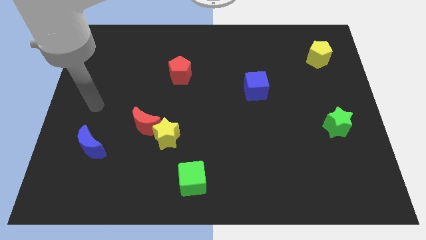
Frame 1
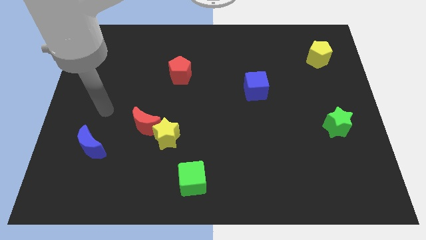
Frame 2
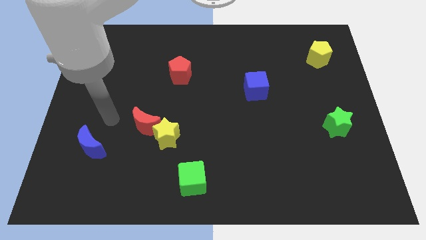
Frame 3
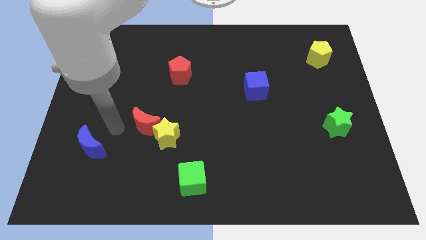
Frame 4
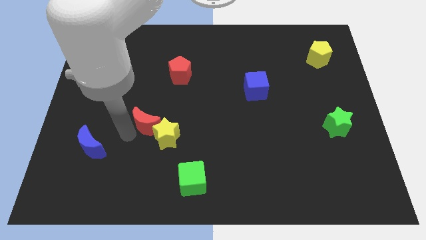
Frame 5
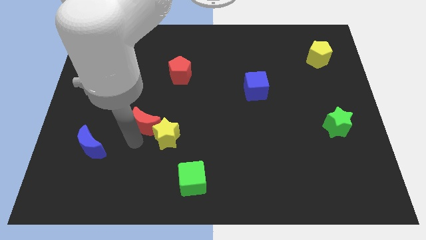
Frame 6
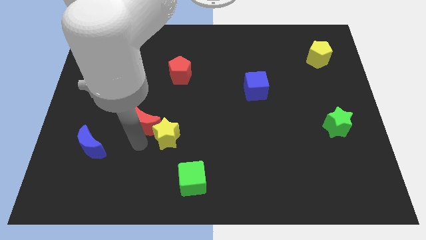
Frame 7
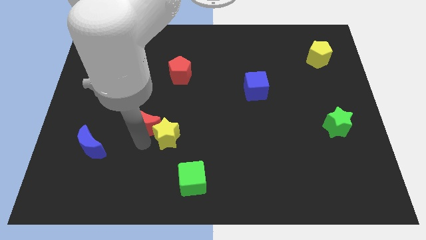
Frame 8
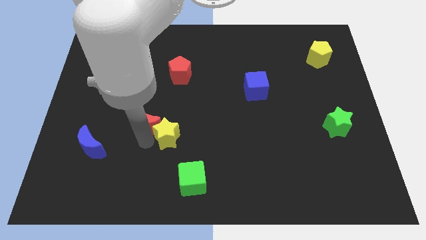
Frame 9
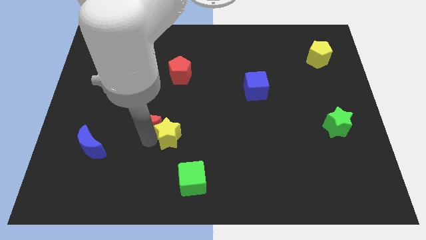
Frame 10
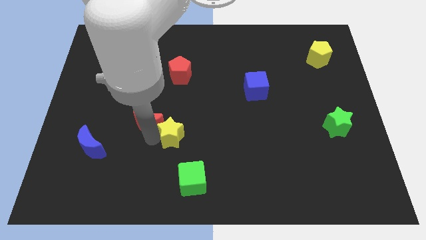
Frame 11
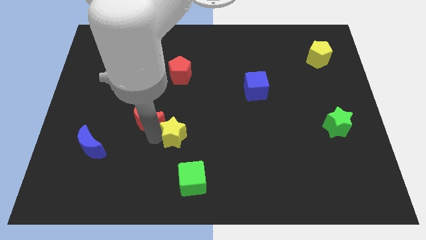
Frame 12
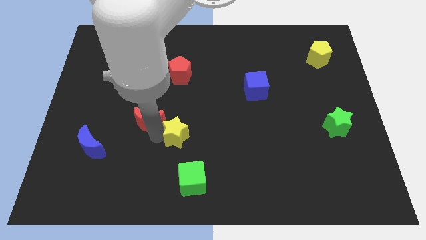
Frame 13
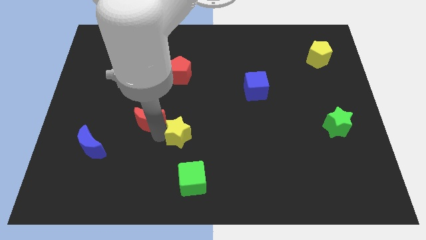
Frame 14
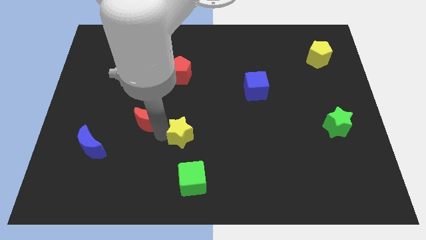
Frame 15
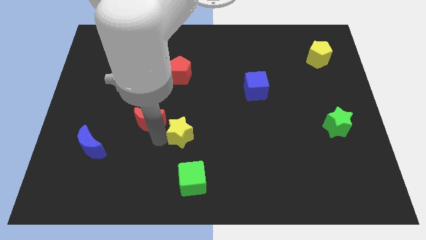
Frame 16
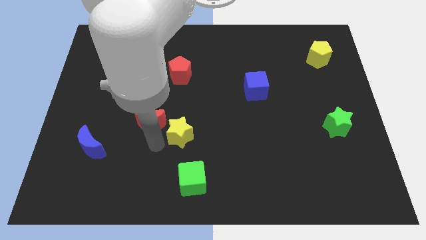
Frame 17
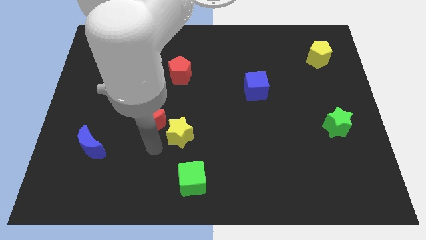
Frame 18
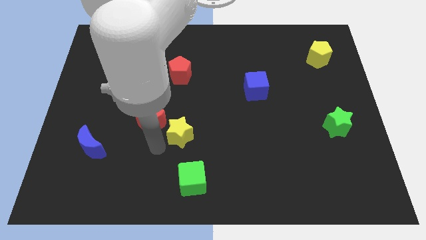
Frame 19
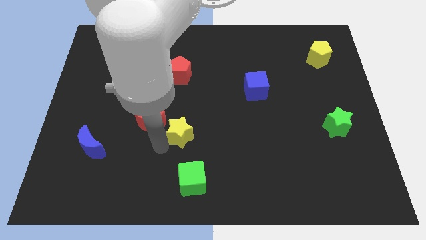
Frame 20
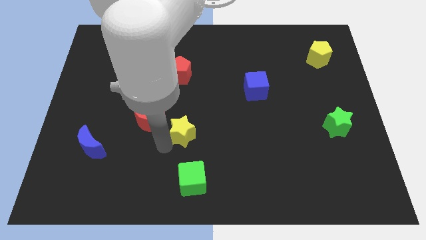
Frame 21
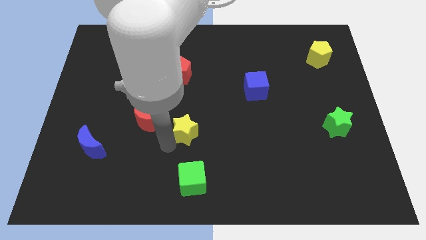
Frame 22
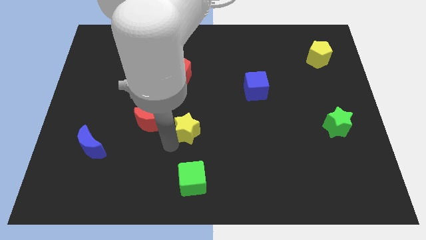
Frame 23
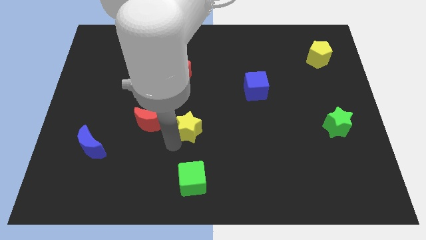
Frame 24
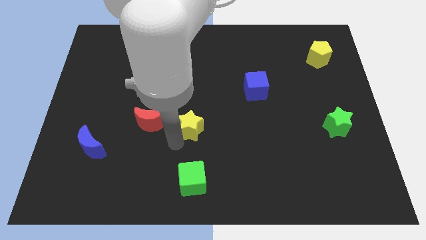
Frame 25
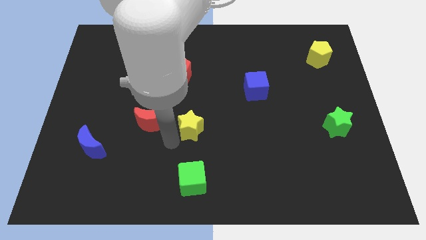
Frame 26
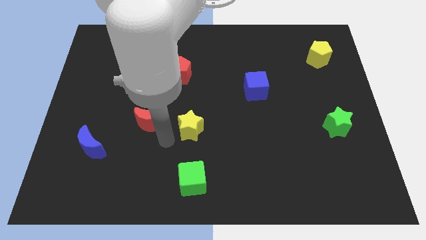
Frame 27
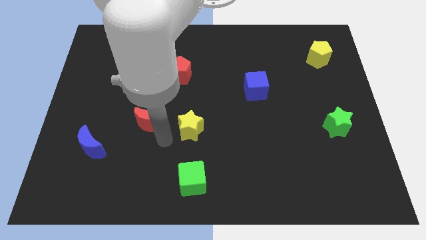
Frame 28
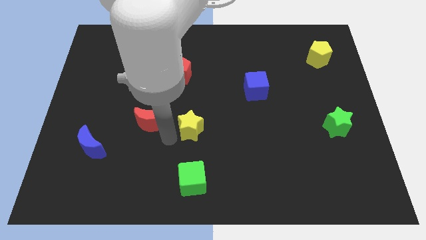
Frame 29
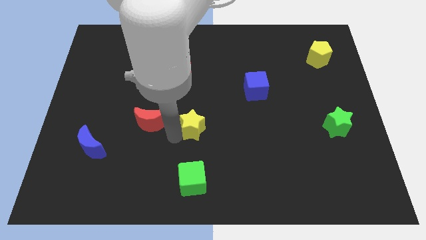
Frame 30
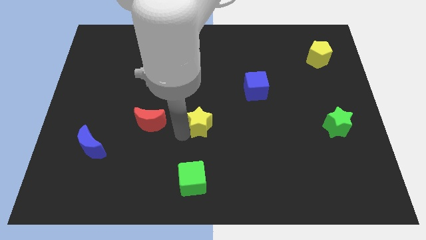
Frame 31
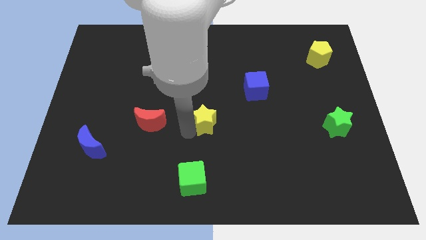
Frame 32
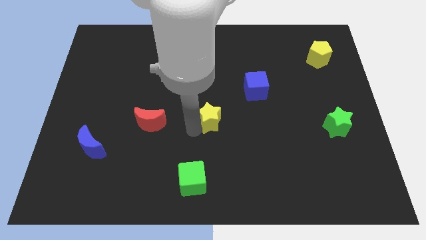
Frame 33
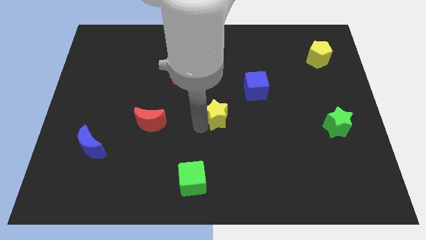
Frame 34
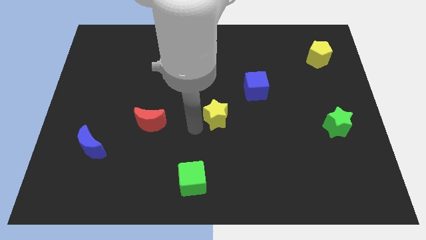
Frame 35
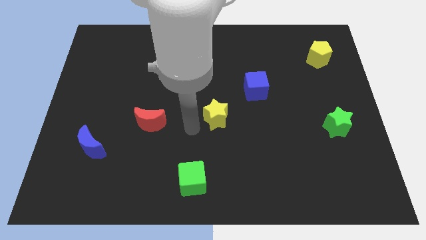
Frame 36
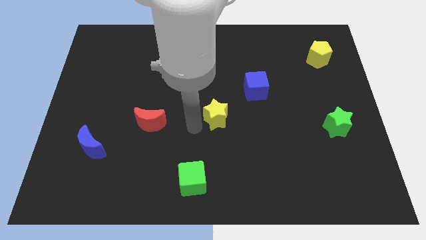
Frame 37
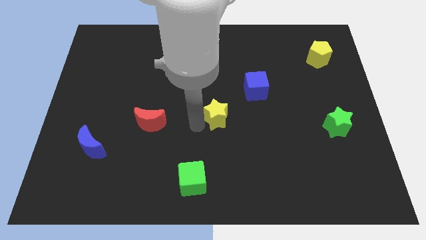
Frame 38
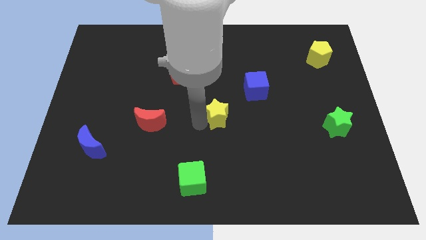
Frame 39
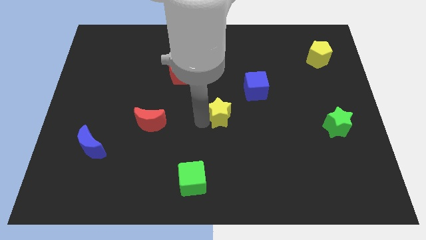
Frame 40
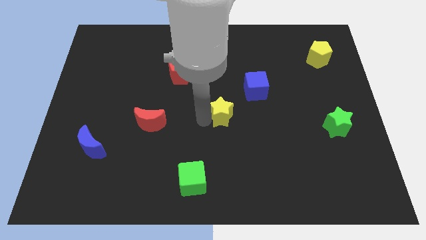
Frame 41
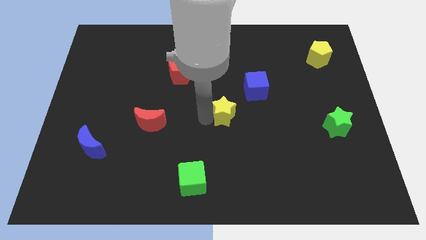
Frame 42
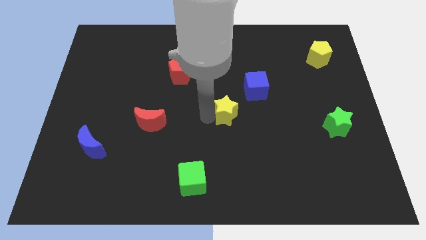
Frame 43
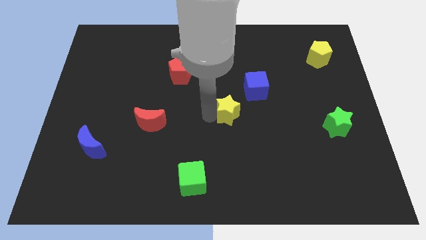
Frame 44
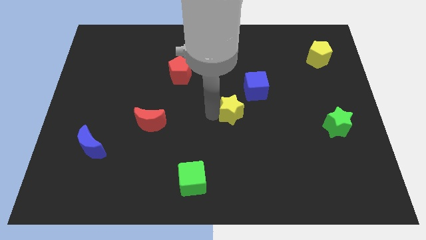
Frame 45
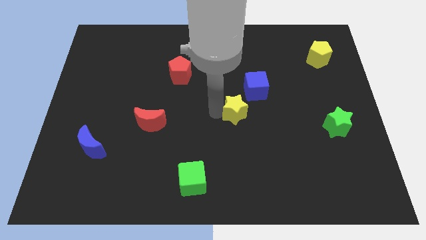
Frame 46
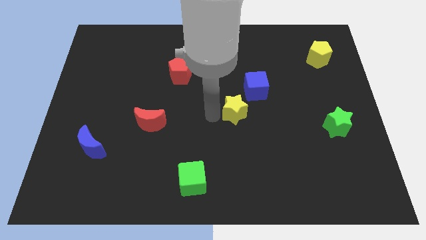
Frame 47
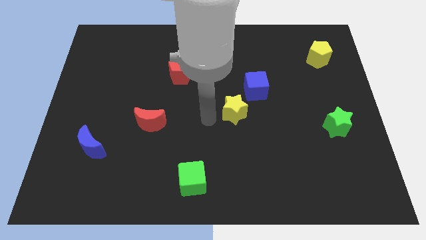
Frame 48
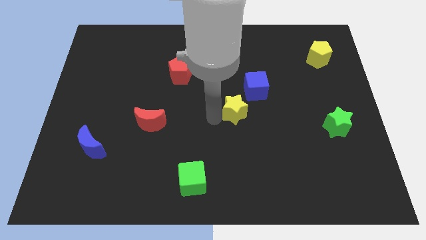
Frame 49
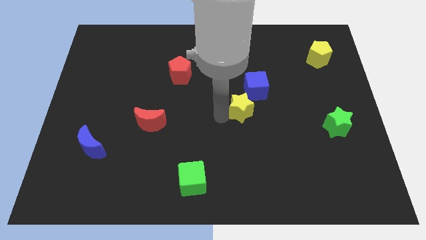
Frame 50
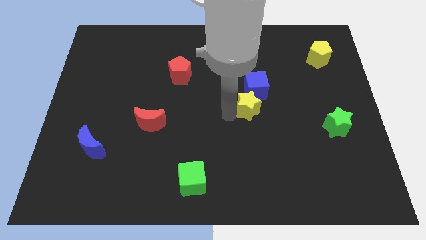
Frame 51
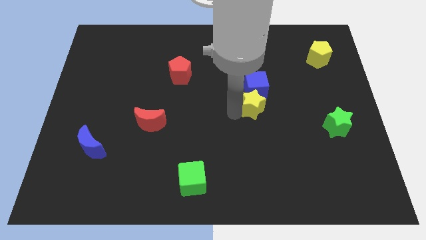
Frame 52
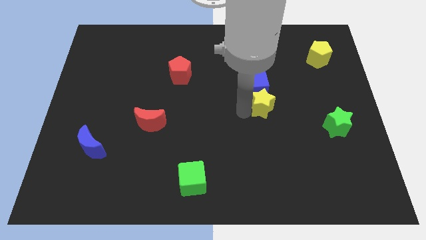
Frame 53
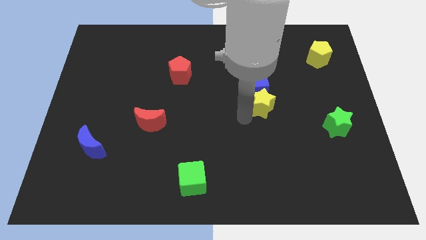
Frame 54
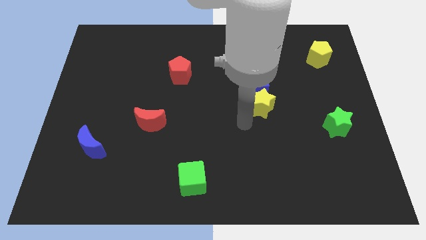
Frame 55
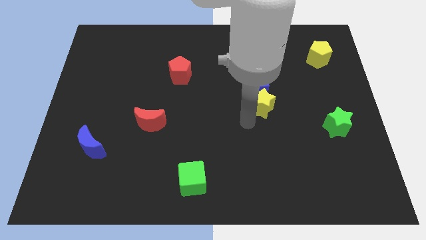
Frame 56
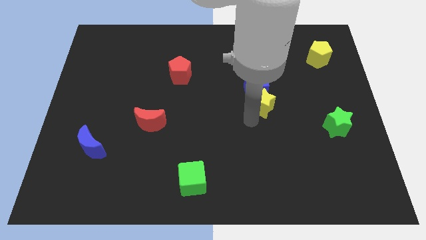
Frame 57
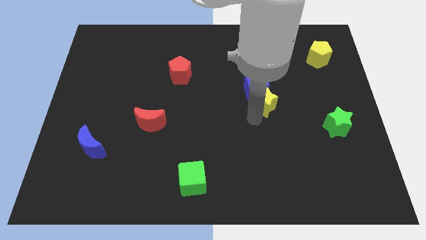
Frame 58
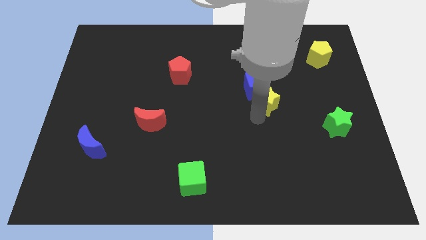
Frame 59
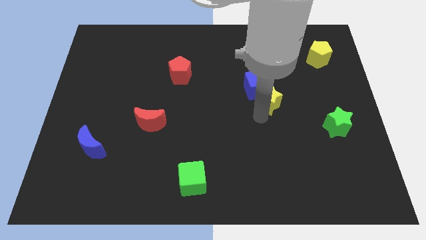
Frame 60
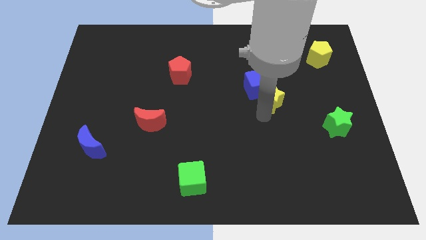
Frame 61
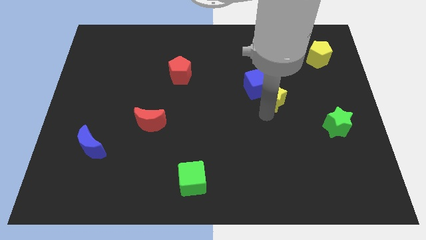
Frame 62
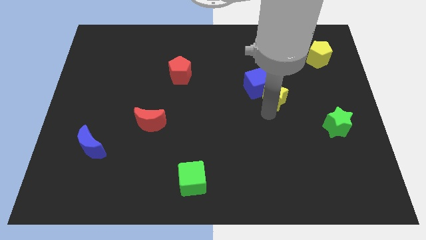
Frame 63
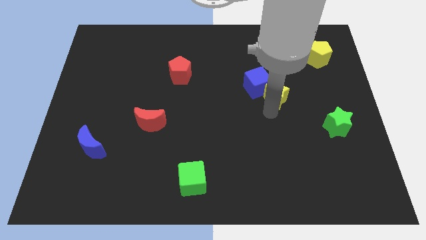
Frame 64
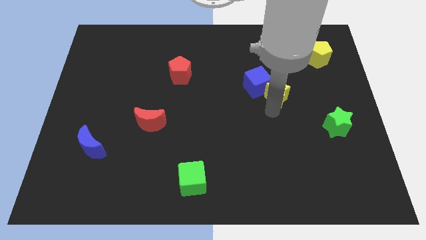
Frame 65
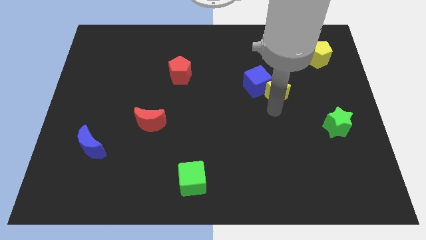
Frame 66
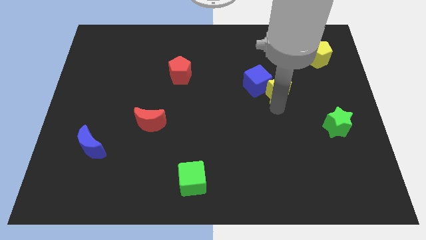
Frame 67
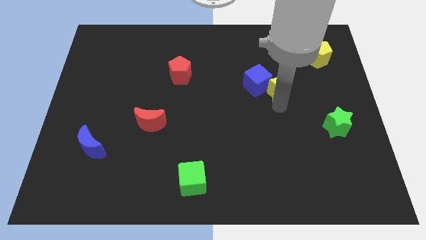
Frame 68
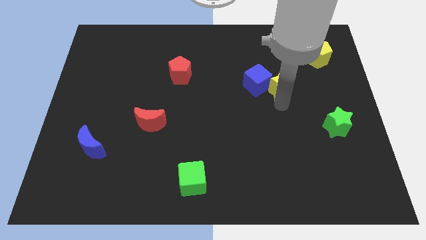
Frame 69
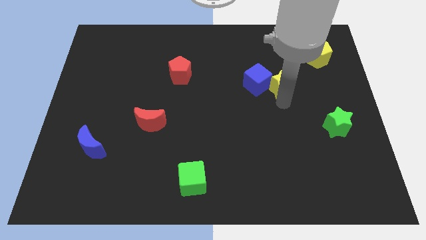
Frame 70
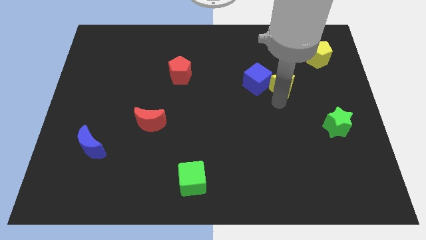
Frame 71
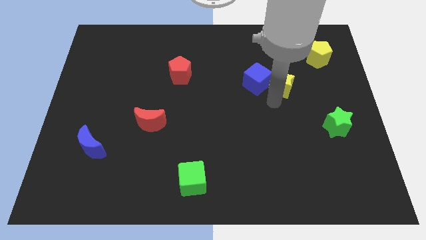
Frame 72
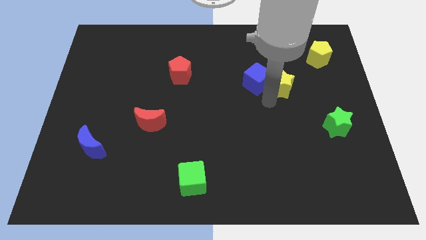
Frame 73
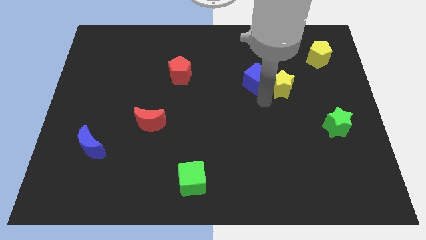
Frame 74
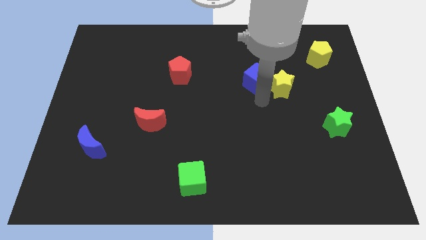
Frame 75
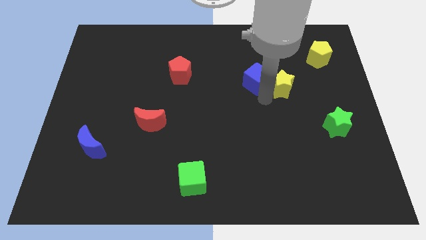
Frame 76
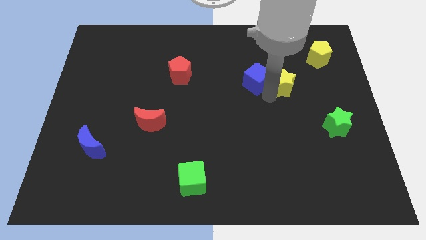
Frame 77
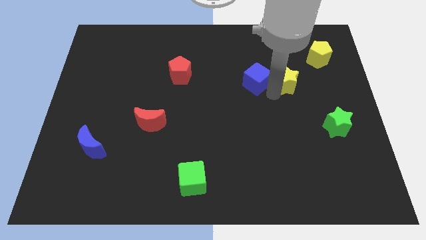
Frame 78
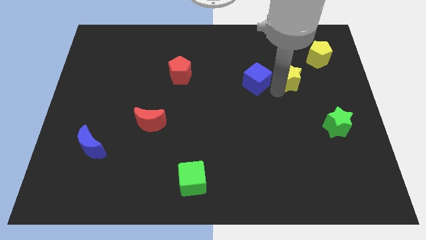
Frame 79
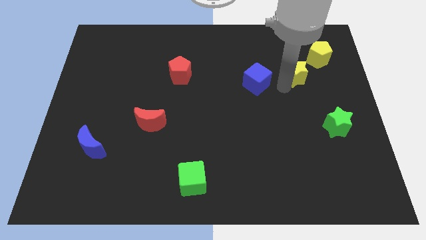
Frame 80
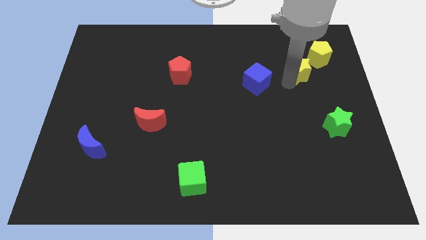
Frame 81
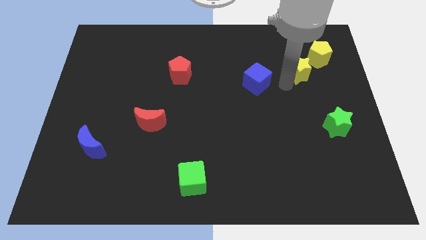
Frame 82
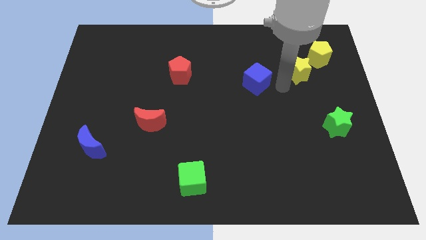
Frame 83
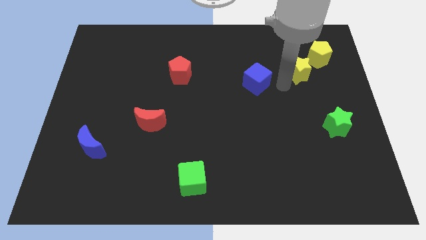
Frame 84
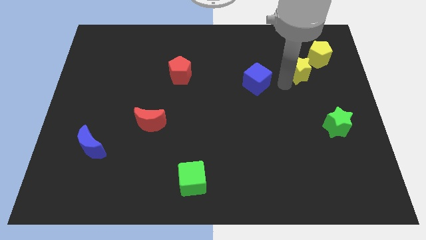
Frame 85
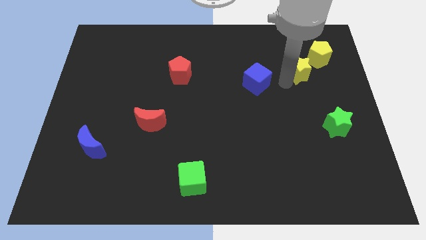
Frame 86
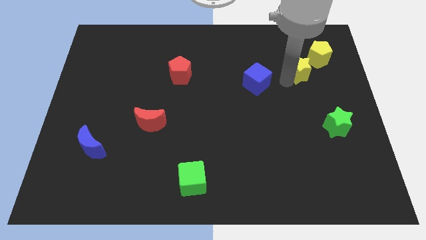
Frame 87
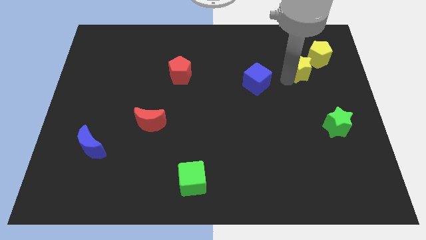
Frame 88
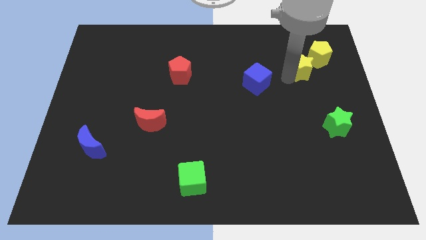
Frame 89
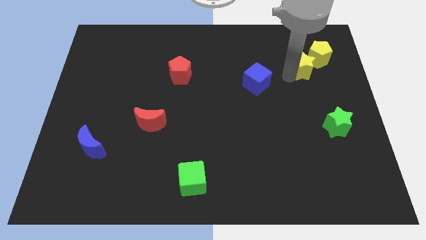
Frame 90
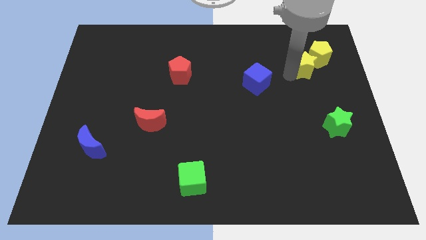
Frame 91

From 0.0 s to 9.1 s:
slide the yellow star close to the yellow pentagon
